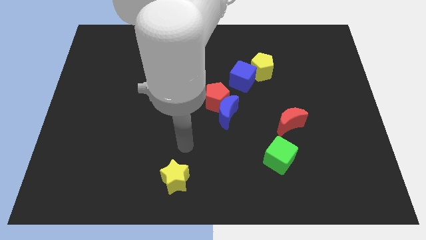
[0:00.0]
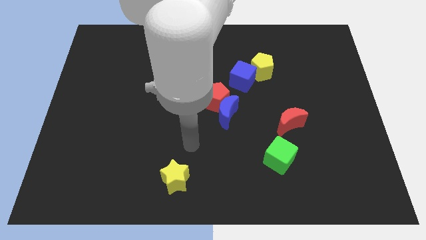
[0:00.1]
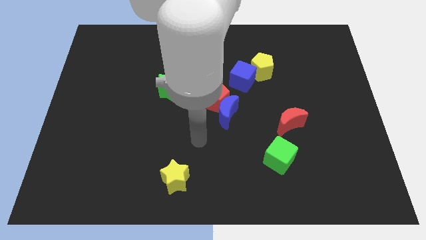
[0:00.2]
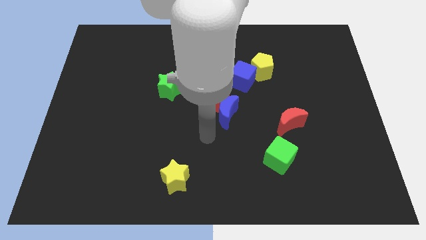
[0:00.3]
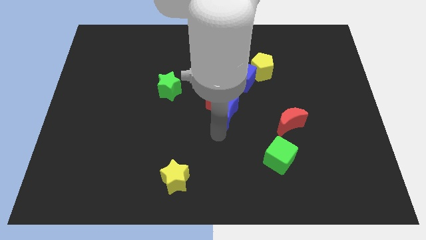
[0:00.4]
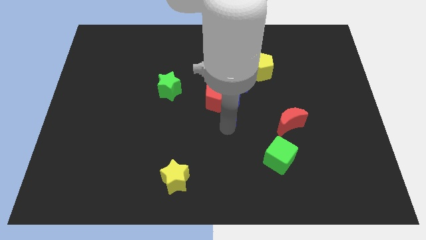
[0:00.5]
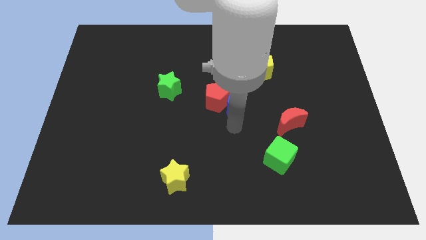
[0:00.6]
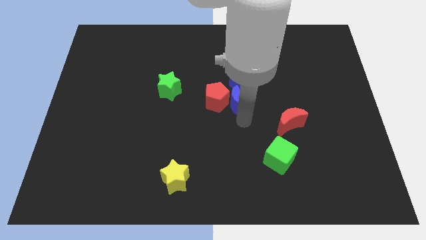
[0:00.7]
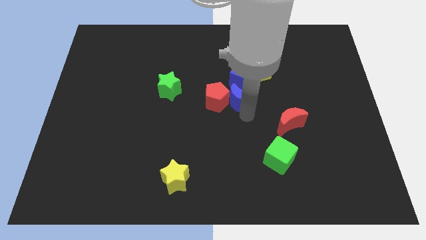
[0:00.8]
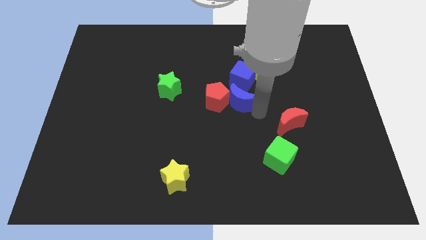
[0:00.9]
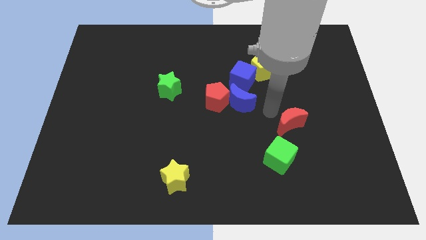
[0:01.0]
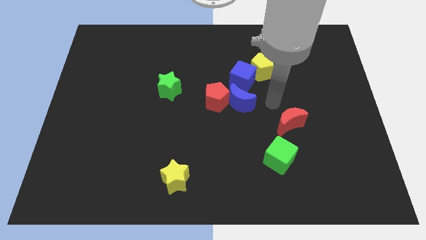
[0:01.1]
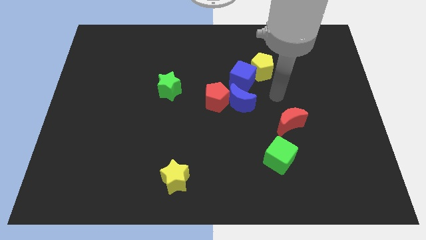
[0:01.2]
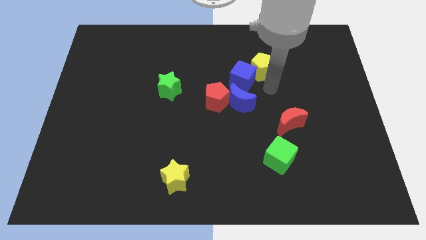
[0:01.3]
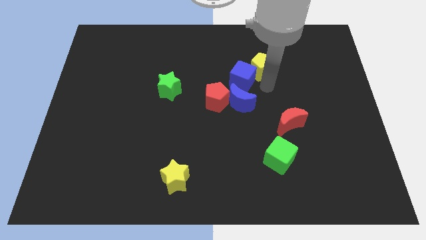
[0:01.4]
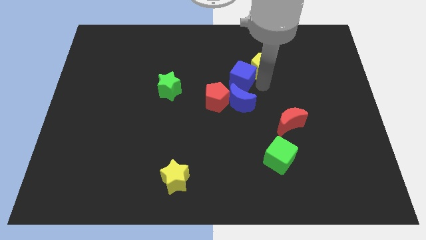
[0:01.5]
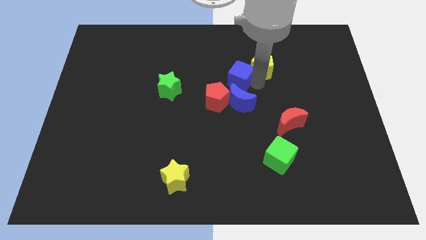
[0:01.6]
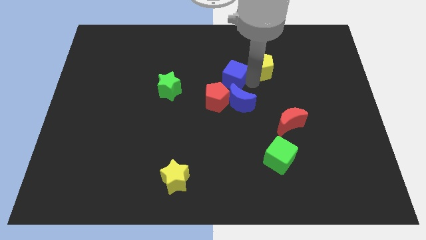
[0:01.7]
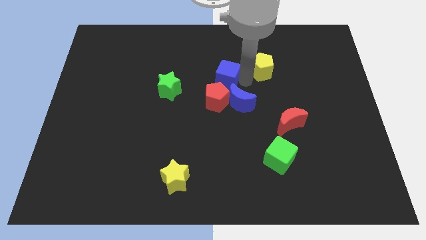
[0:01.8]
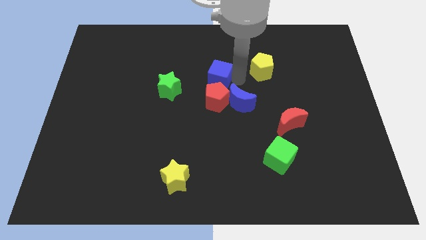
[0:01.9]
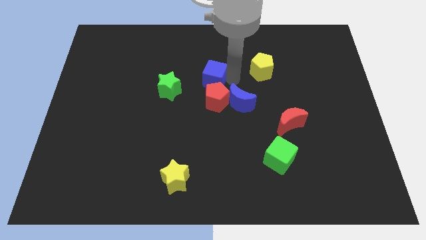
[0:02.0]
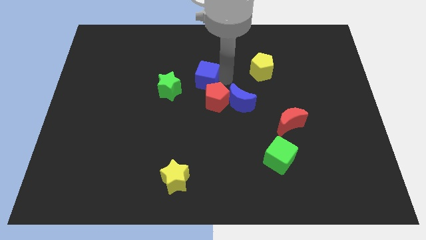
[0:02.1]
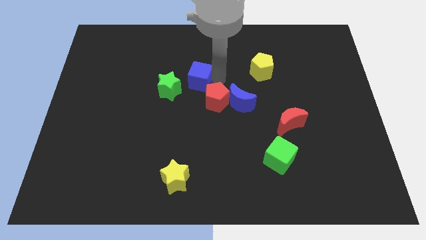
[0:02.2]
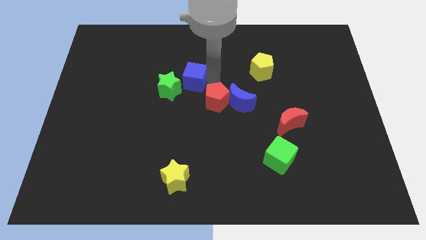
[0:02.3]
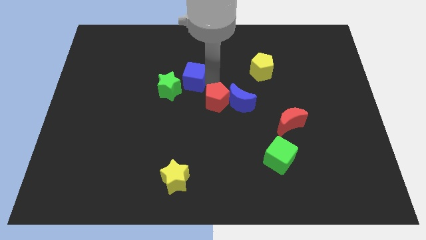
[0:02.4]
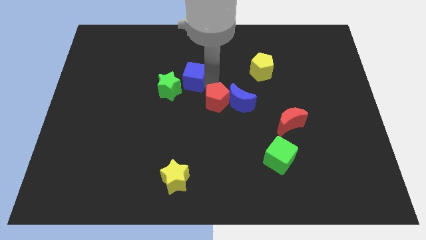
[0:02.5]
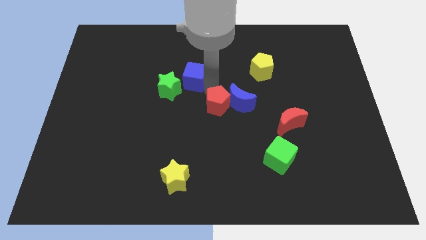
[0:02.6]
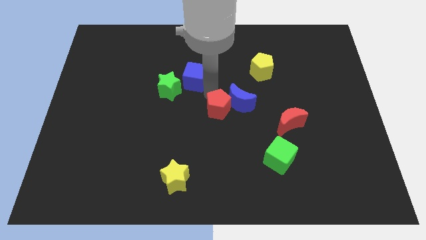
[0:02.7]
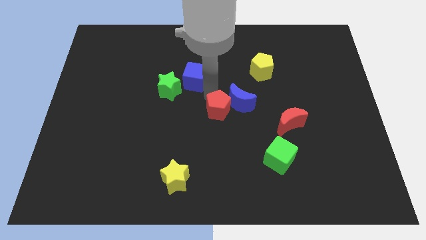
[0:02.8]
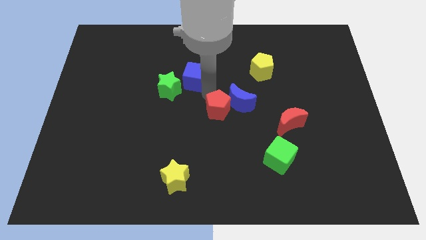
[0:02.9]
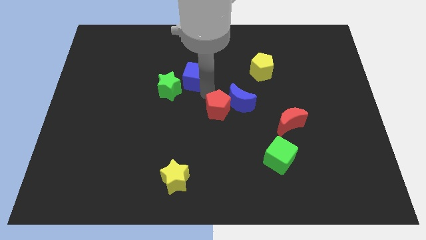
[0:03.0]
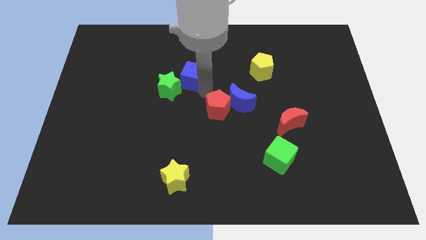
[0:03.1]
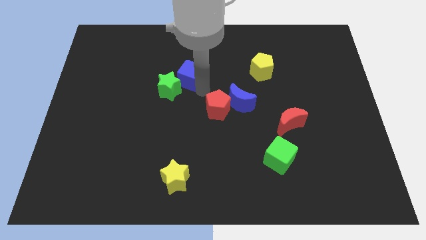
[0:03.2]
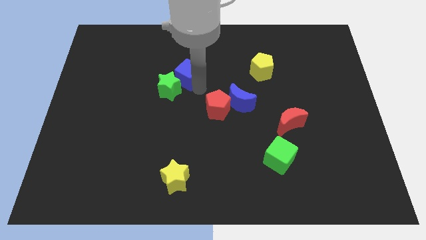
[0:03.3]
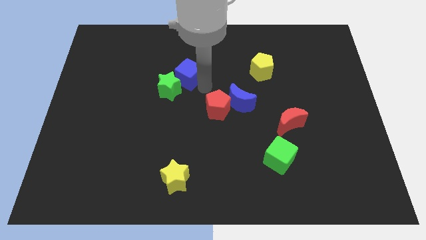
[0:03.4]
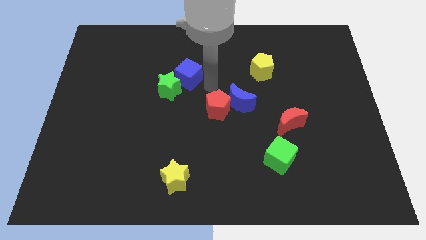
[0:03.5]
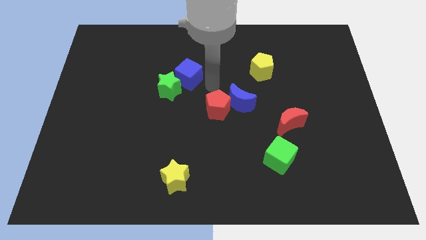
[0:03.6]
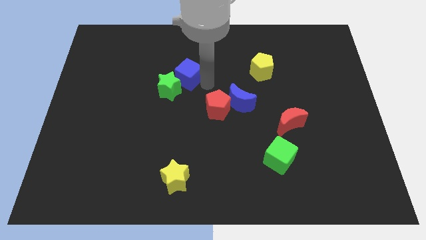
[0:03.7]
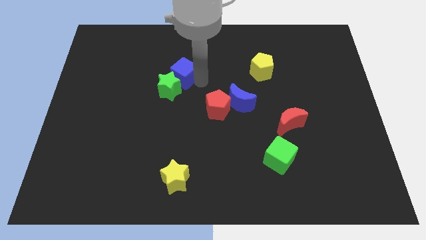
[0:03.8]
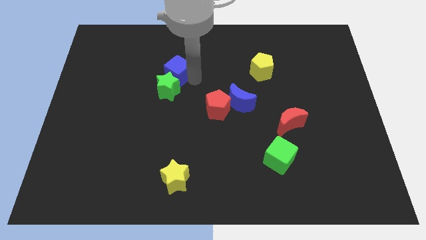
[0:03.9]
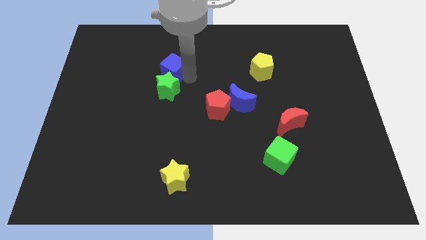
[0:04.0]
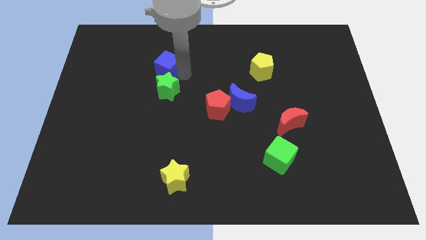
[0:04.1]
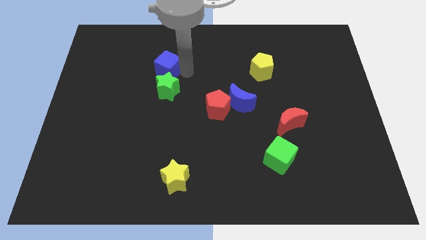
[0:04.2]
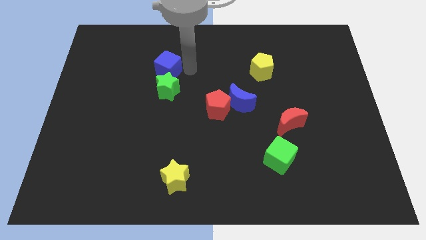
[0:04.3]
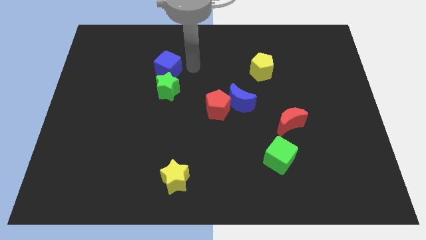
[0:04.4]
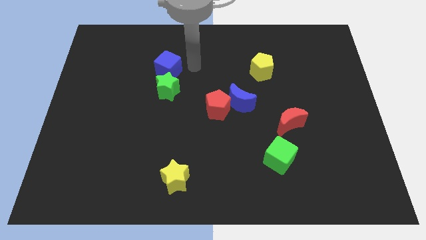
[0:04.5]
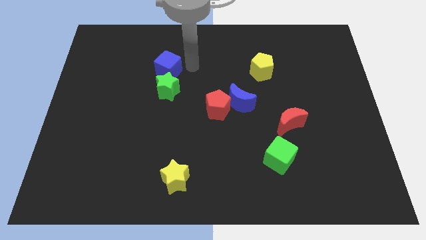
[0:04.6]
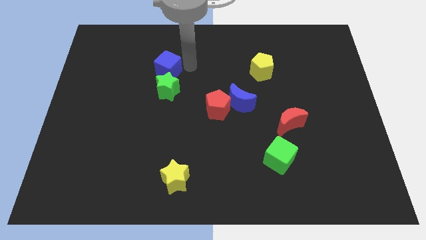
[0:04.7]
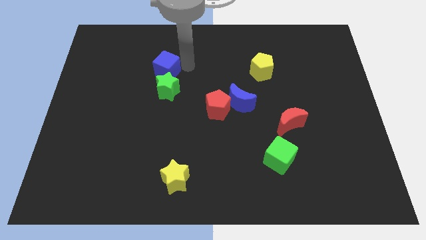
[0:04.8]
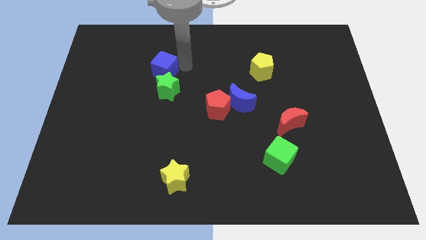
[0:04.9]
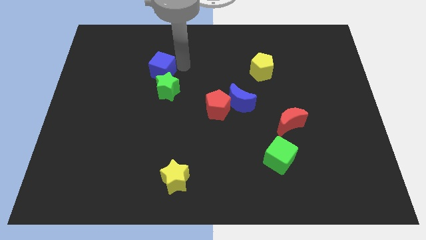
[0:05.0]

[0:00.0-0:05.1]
slide the blue cube to the left

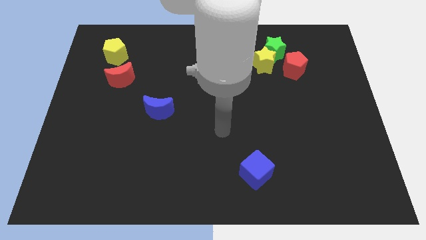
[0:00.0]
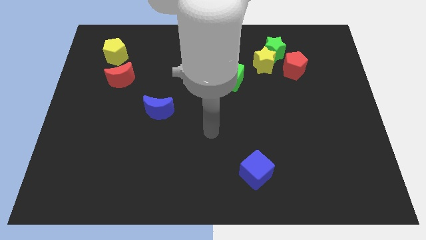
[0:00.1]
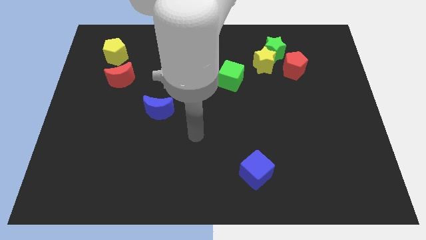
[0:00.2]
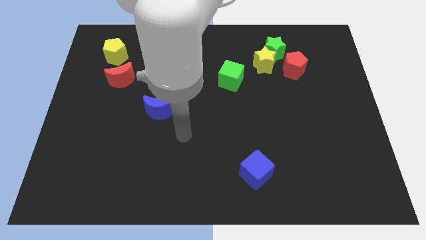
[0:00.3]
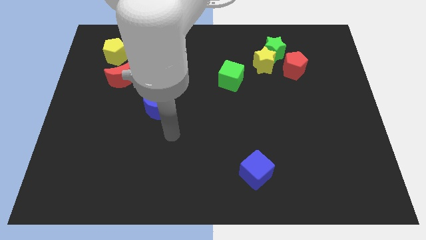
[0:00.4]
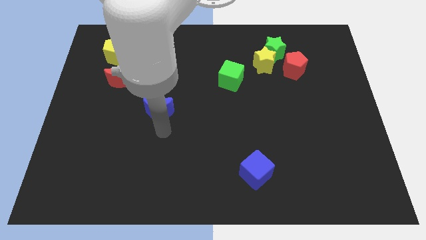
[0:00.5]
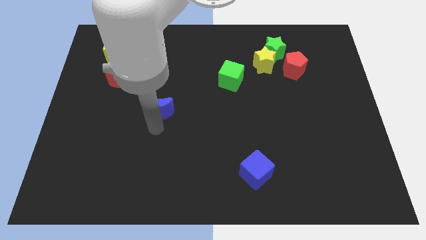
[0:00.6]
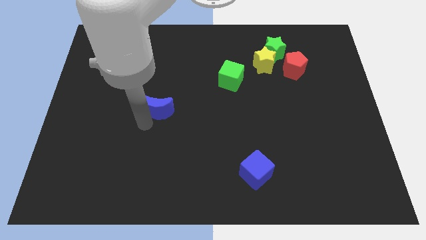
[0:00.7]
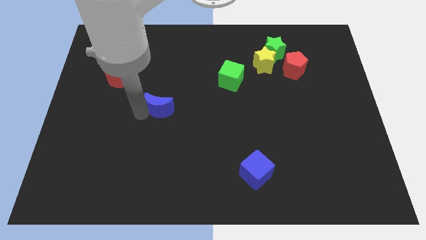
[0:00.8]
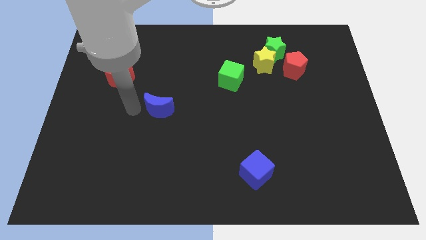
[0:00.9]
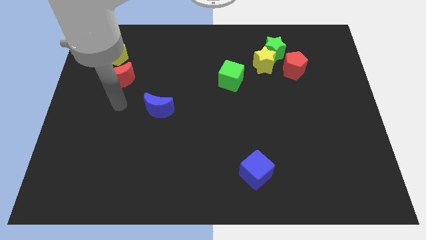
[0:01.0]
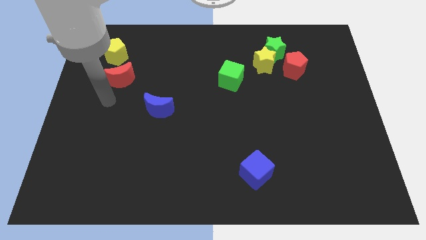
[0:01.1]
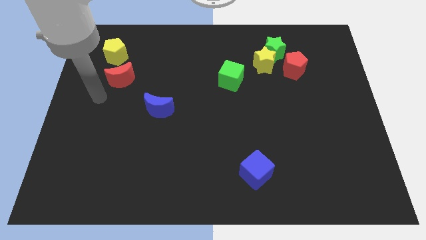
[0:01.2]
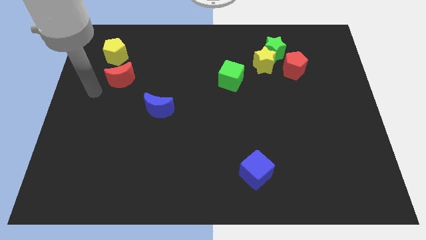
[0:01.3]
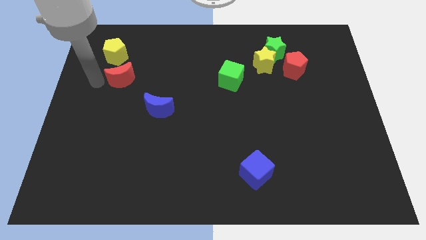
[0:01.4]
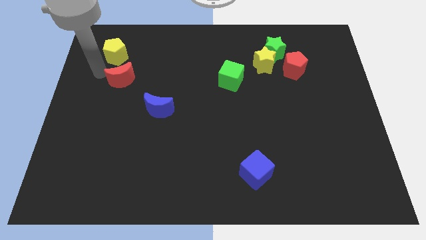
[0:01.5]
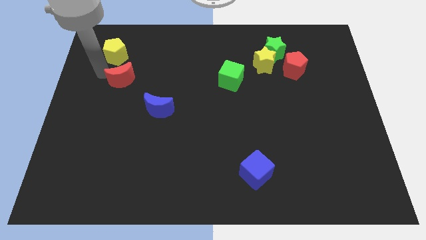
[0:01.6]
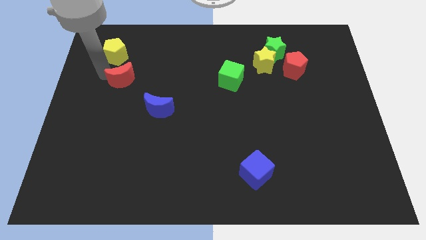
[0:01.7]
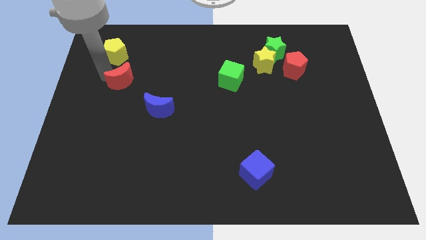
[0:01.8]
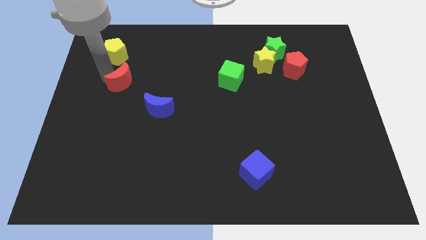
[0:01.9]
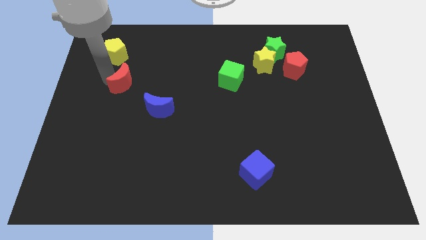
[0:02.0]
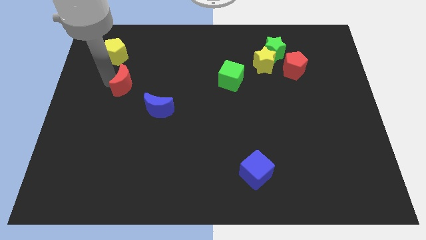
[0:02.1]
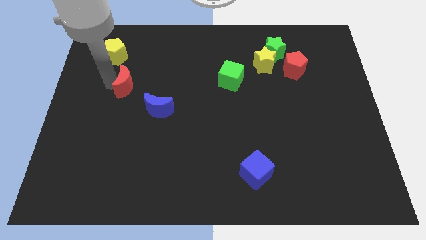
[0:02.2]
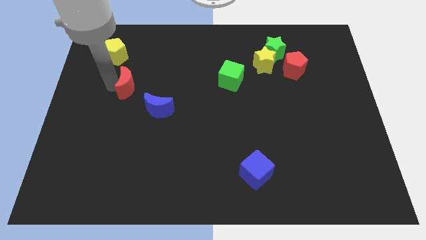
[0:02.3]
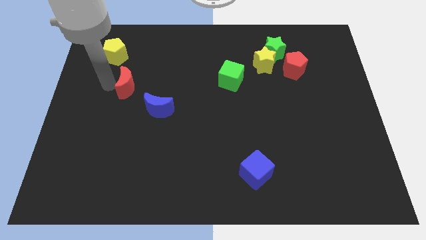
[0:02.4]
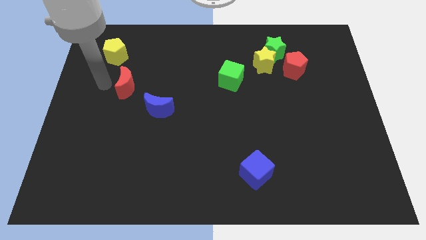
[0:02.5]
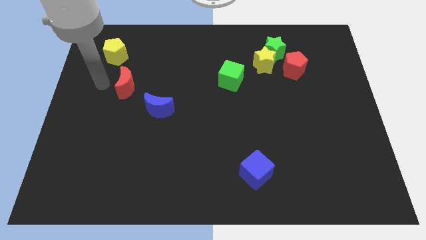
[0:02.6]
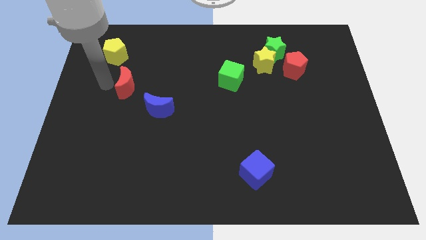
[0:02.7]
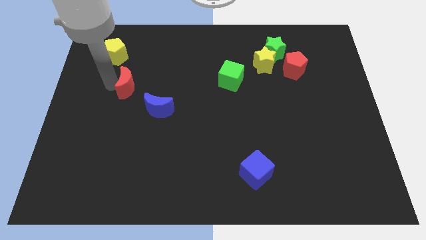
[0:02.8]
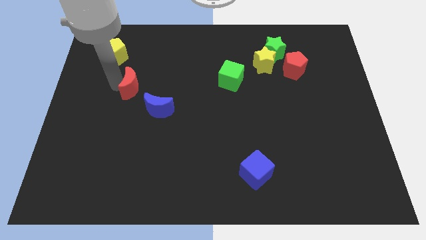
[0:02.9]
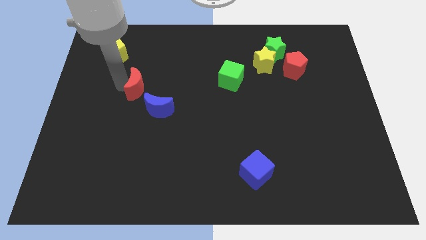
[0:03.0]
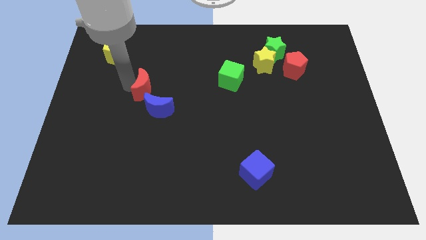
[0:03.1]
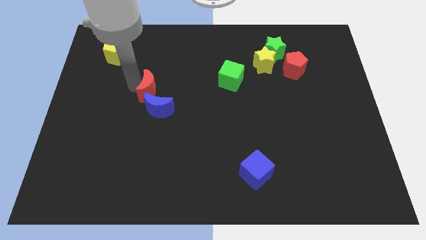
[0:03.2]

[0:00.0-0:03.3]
push the red moon downwards and to the right diagonally a little
